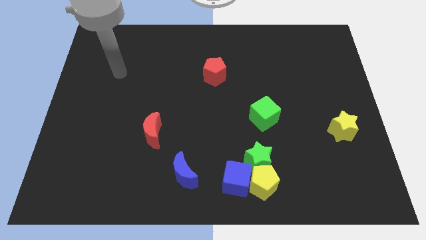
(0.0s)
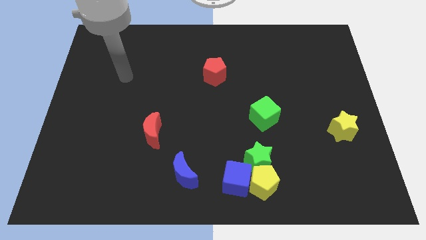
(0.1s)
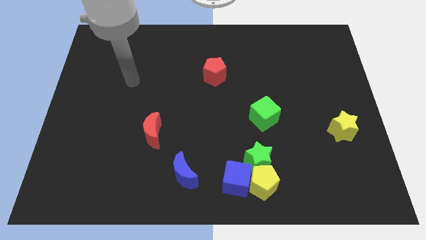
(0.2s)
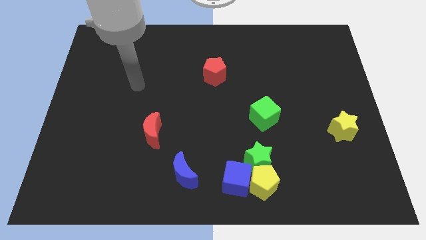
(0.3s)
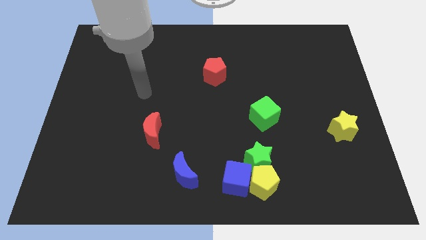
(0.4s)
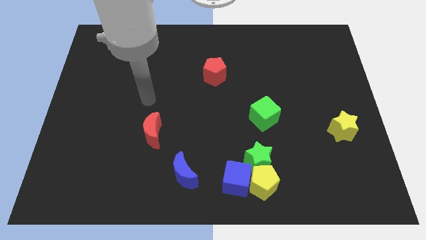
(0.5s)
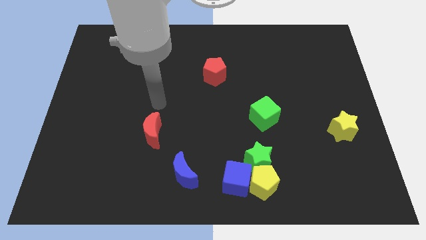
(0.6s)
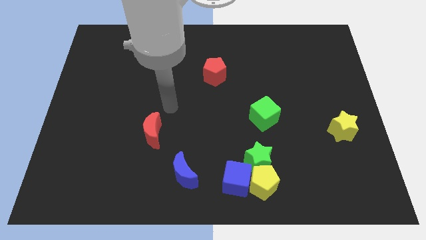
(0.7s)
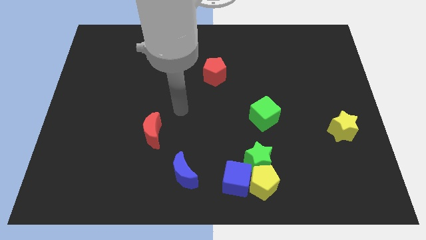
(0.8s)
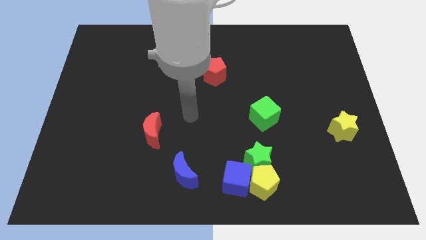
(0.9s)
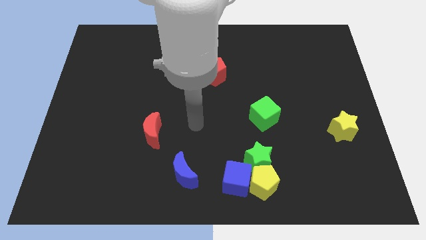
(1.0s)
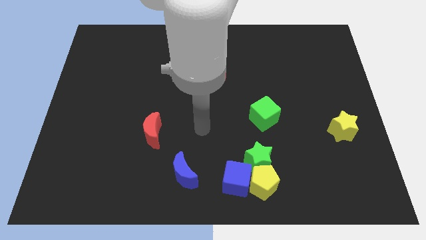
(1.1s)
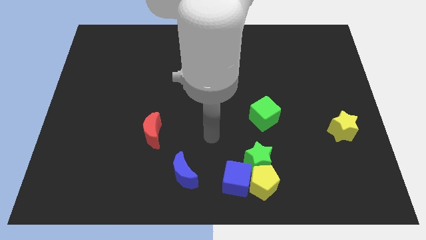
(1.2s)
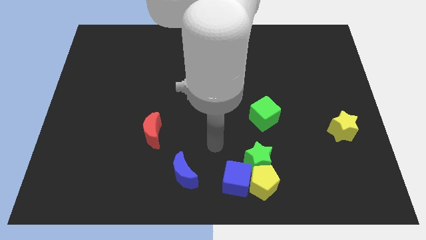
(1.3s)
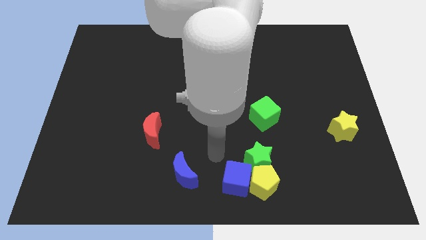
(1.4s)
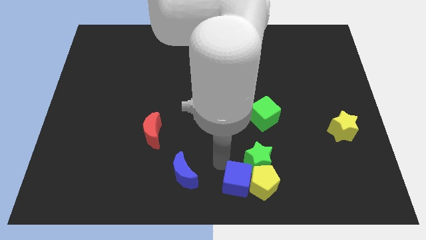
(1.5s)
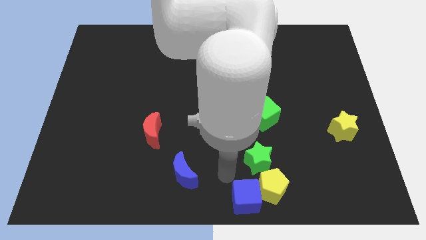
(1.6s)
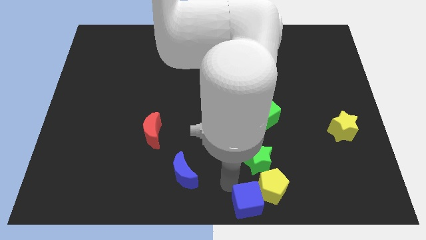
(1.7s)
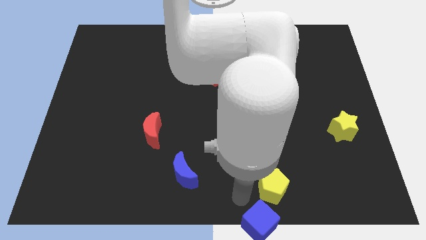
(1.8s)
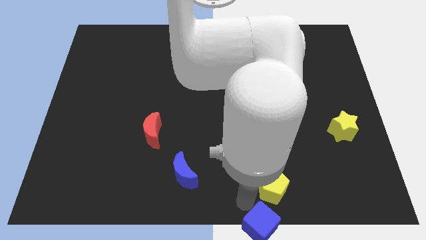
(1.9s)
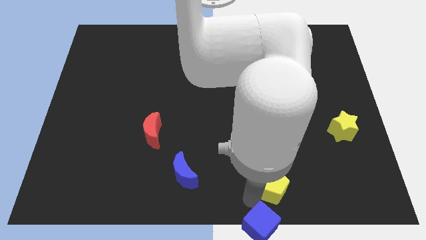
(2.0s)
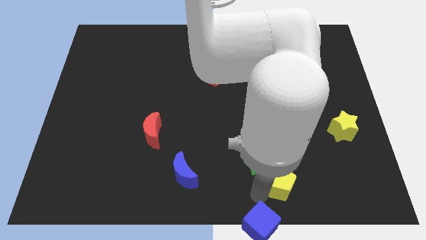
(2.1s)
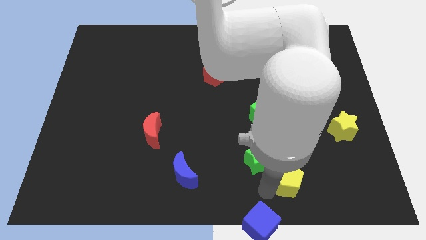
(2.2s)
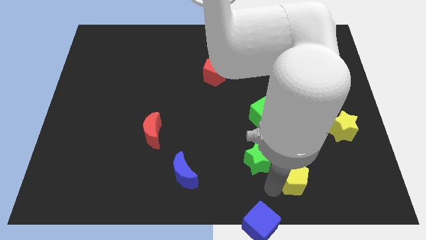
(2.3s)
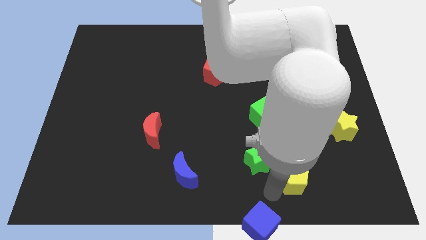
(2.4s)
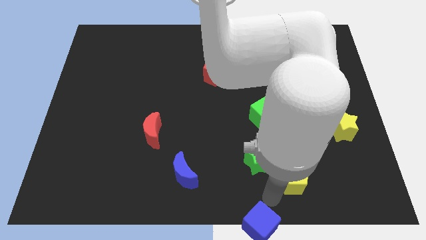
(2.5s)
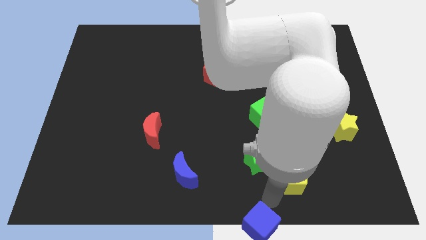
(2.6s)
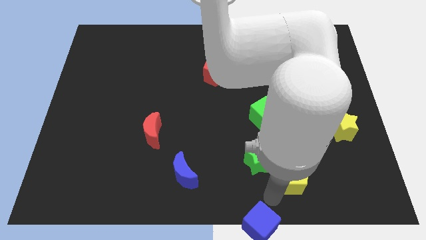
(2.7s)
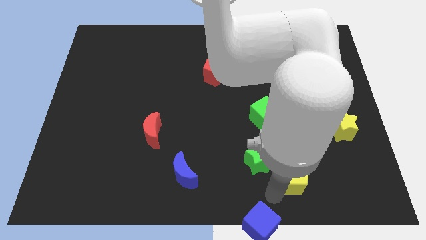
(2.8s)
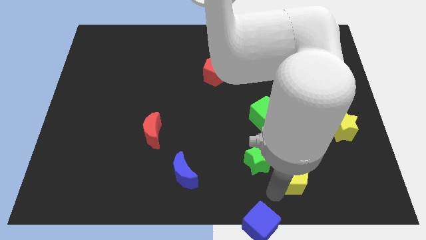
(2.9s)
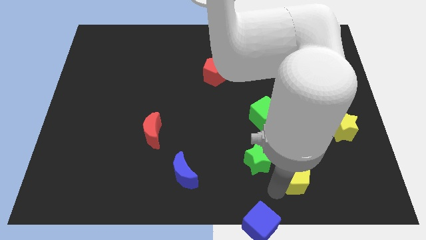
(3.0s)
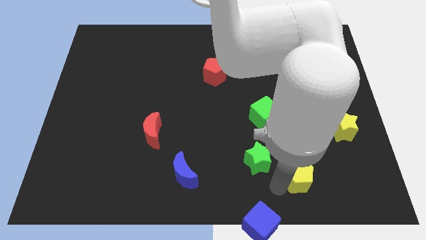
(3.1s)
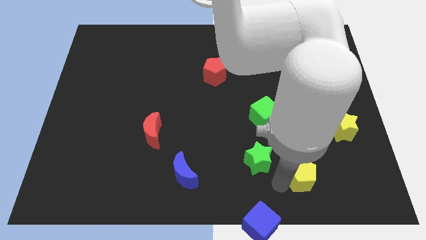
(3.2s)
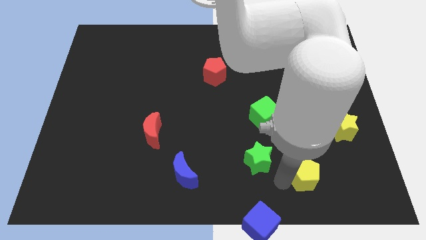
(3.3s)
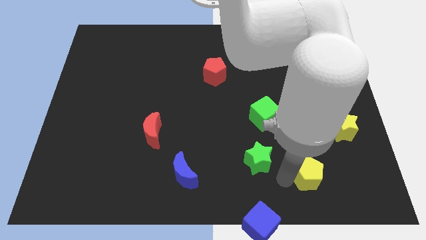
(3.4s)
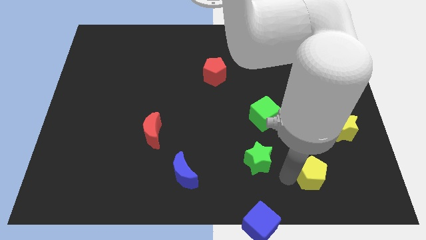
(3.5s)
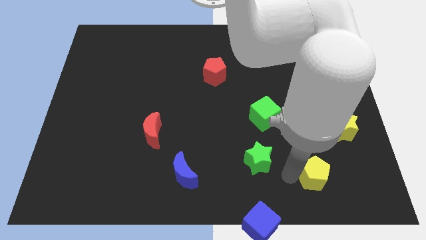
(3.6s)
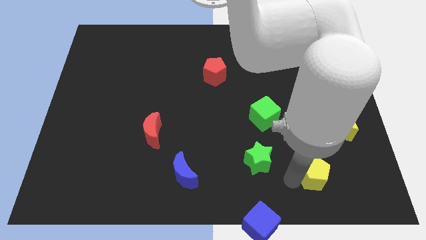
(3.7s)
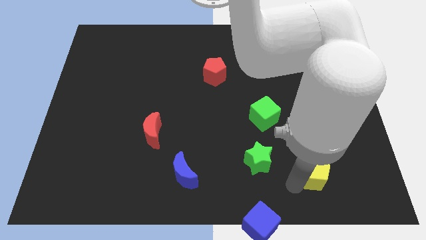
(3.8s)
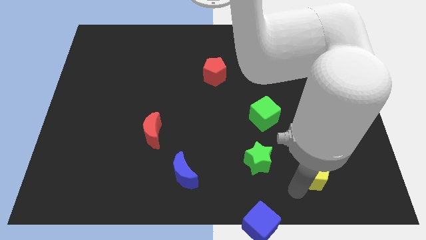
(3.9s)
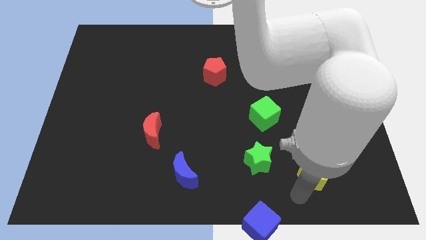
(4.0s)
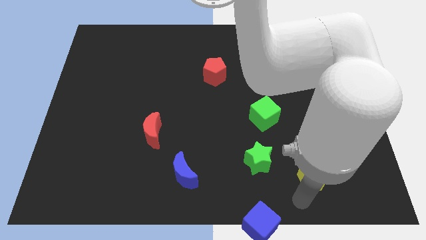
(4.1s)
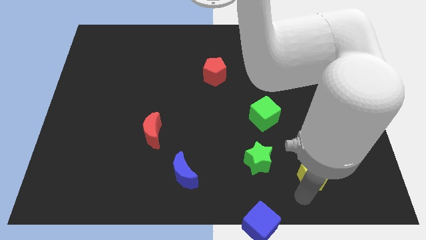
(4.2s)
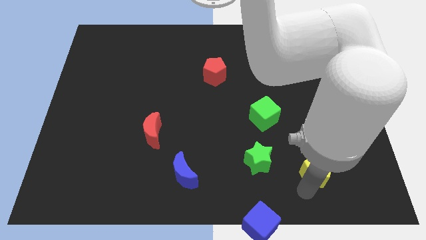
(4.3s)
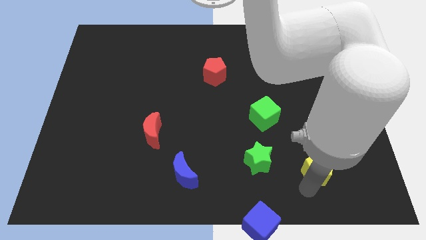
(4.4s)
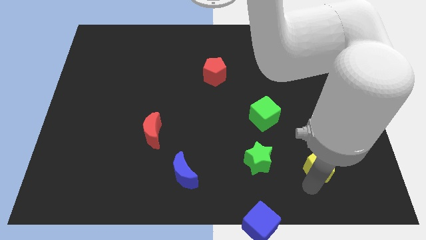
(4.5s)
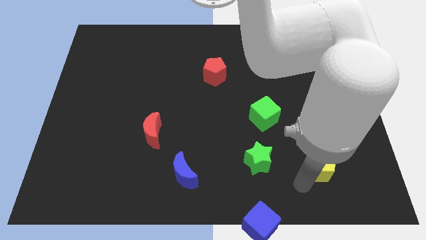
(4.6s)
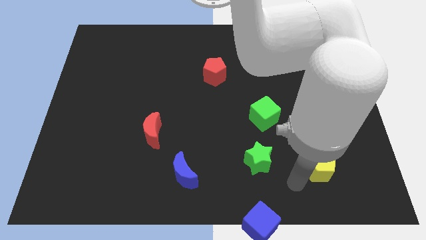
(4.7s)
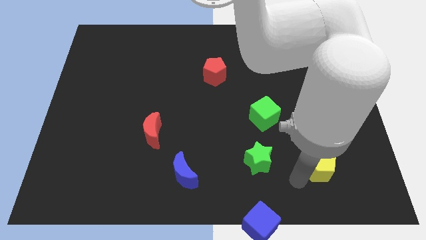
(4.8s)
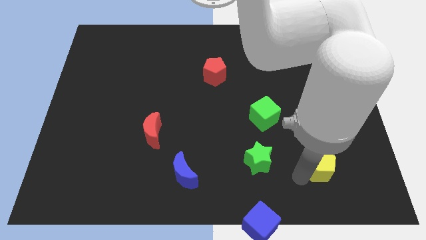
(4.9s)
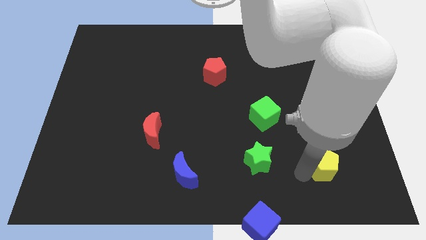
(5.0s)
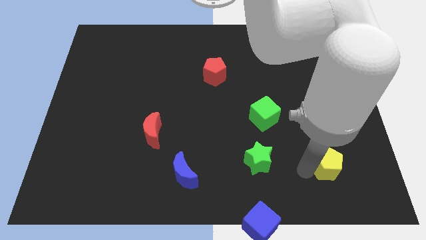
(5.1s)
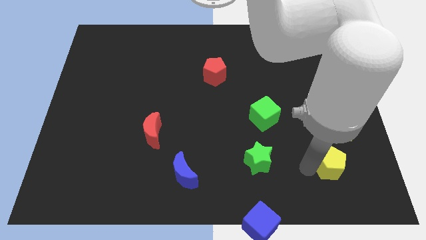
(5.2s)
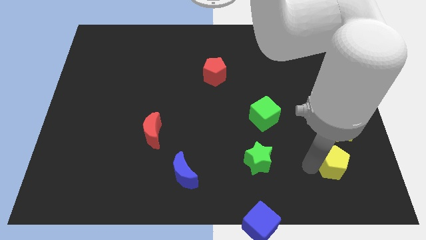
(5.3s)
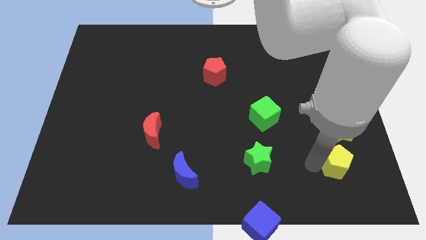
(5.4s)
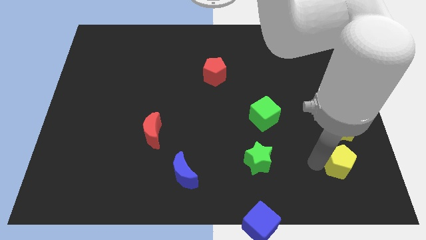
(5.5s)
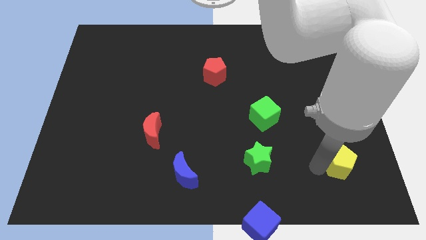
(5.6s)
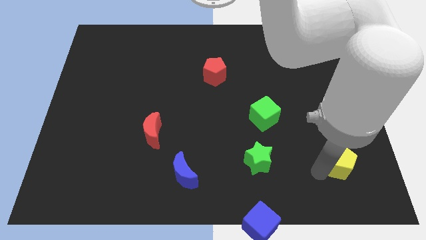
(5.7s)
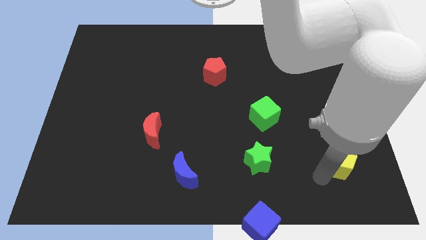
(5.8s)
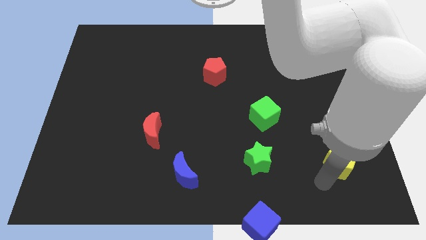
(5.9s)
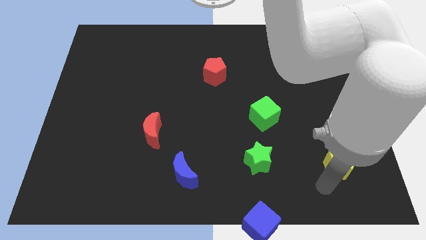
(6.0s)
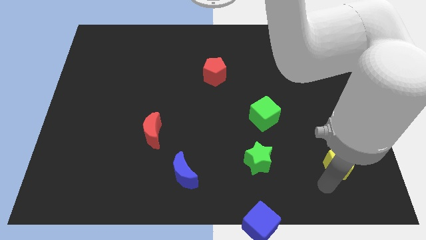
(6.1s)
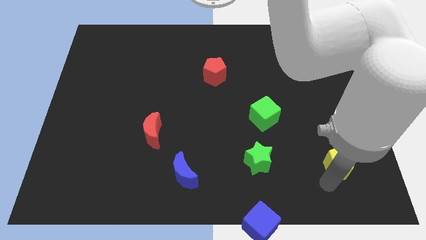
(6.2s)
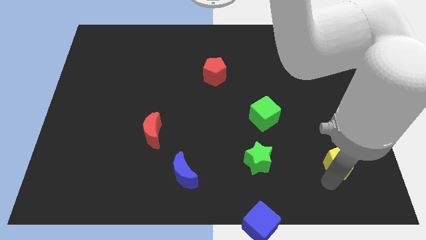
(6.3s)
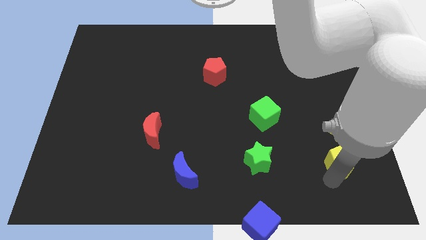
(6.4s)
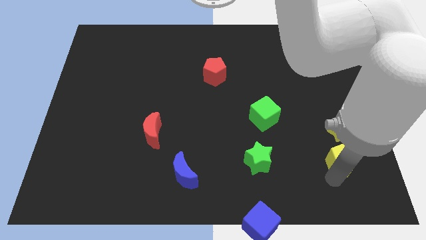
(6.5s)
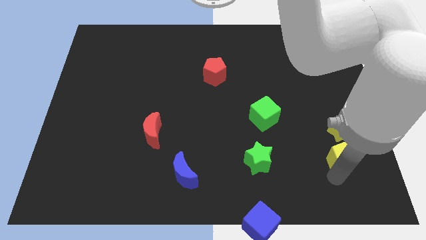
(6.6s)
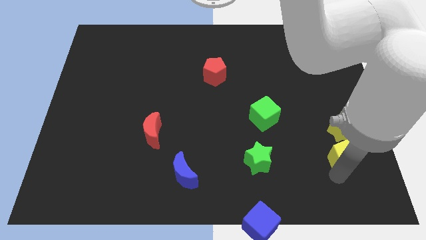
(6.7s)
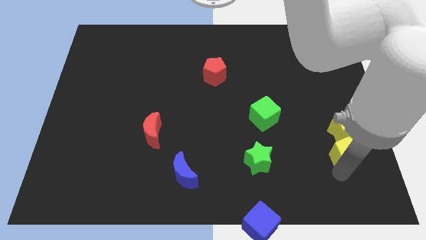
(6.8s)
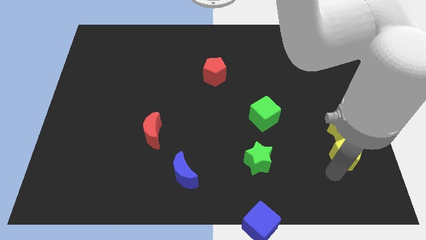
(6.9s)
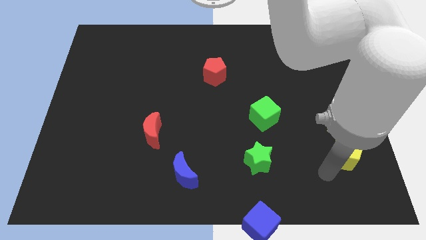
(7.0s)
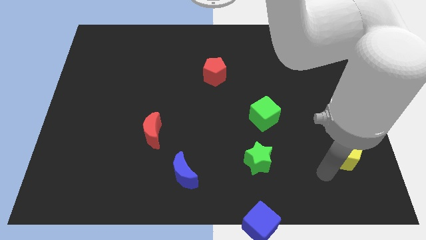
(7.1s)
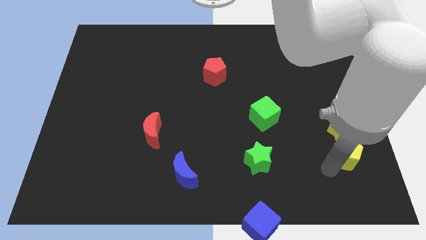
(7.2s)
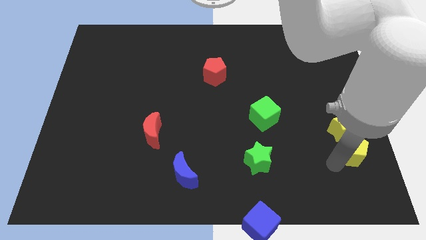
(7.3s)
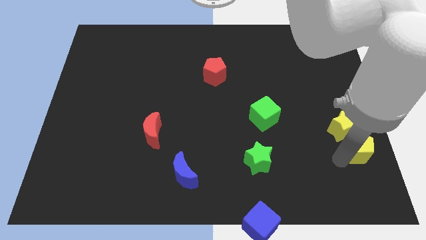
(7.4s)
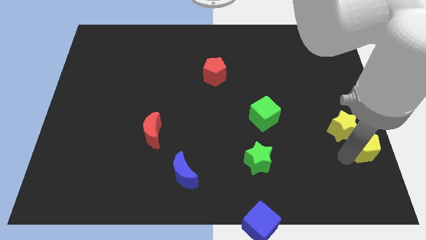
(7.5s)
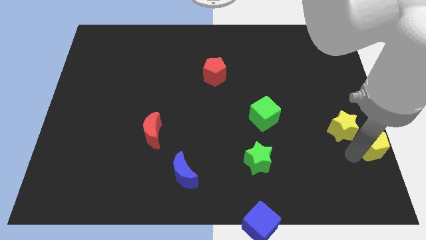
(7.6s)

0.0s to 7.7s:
put the yellow pentagon to the center right
